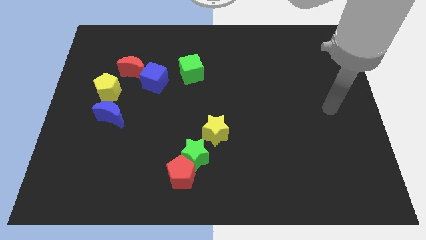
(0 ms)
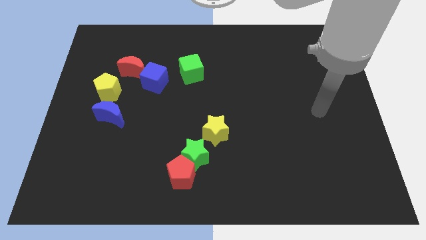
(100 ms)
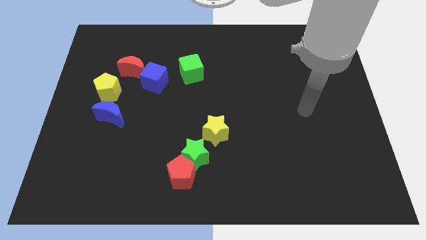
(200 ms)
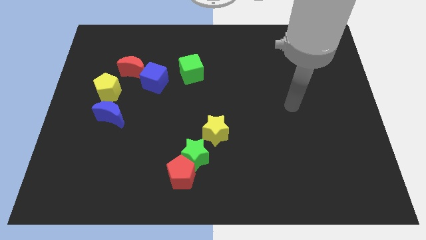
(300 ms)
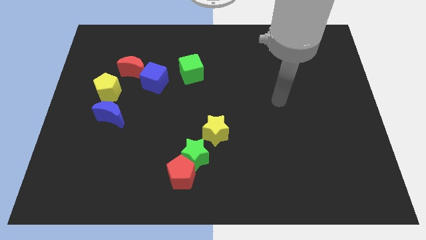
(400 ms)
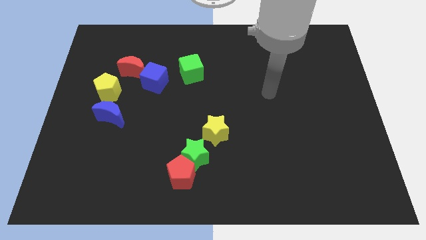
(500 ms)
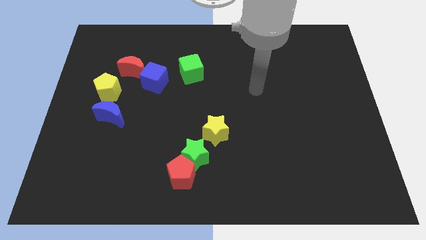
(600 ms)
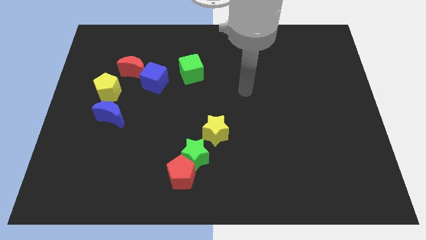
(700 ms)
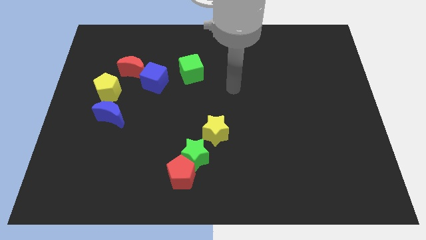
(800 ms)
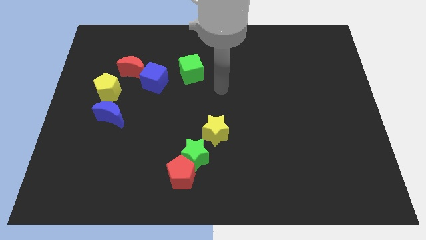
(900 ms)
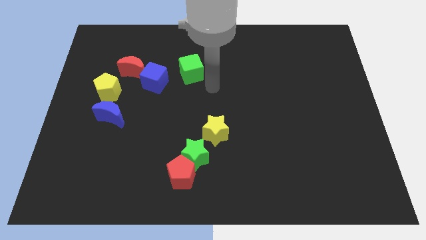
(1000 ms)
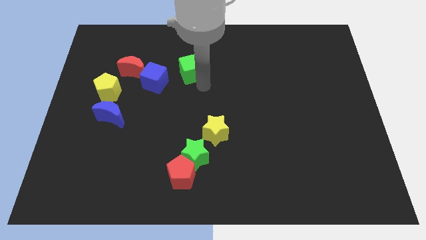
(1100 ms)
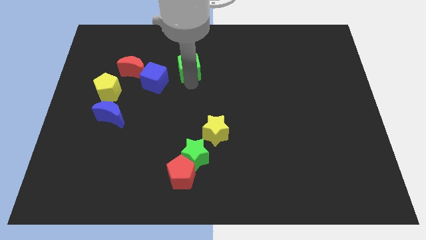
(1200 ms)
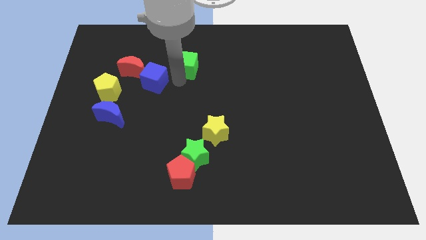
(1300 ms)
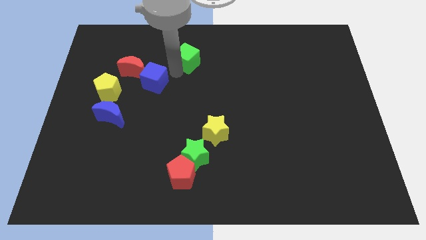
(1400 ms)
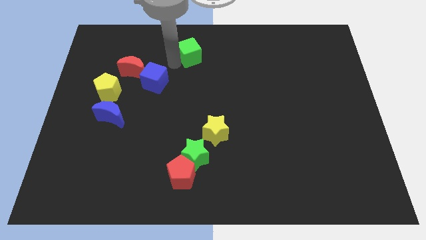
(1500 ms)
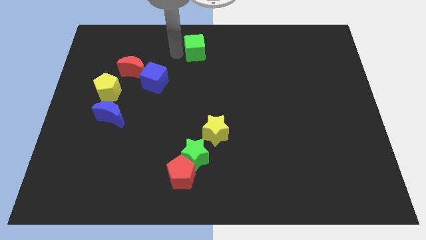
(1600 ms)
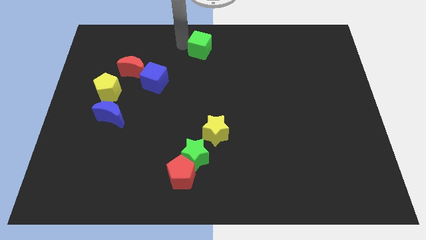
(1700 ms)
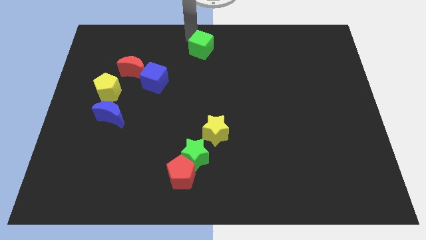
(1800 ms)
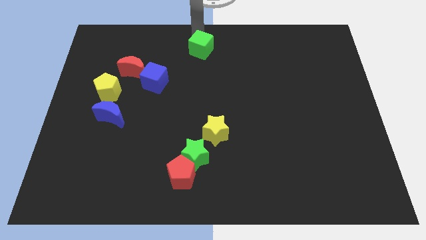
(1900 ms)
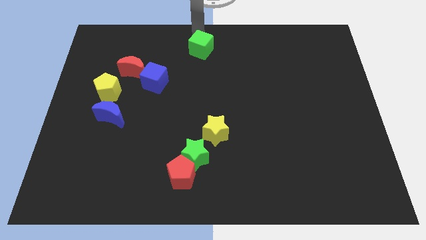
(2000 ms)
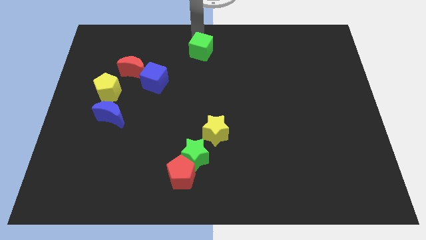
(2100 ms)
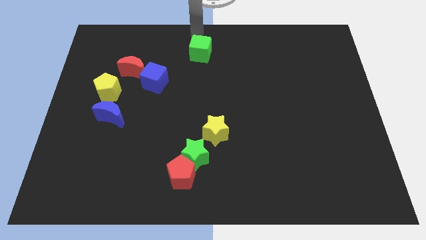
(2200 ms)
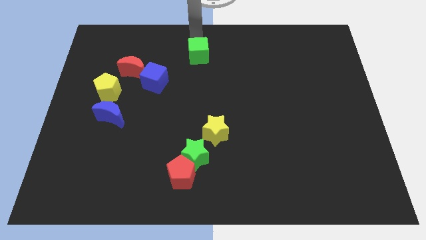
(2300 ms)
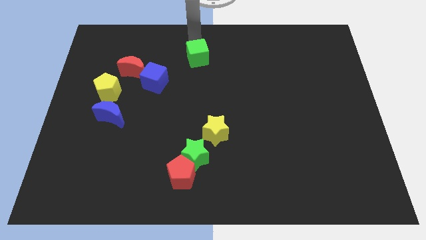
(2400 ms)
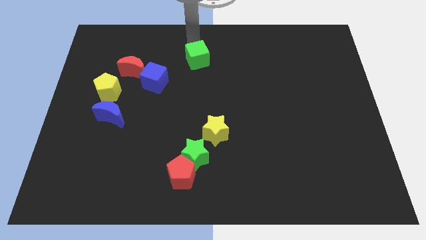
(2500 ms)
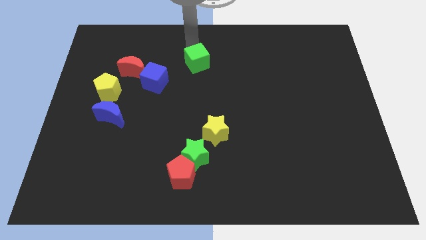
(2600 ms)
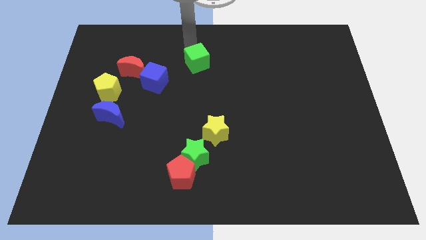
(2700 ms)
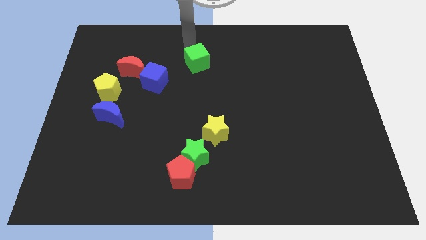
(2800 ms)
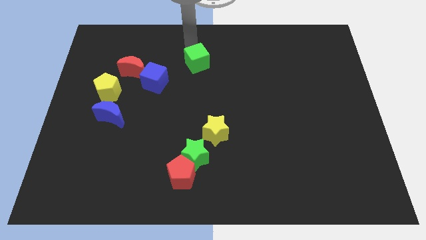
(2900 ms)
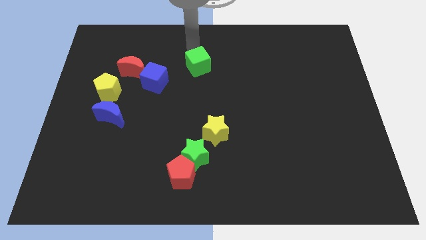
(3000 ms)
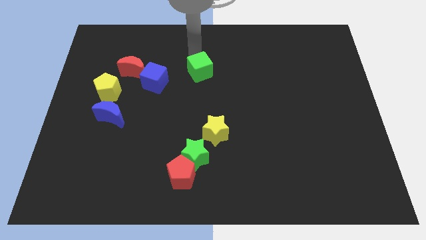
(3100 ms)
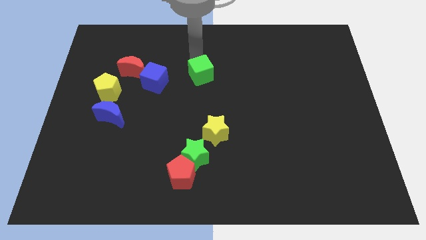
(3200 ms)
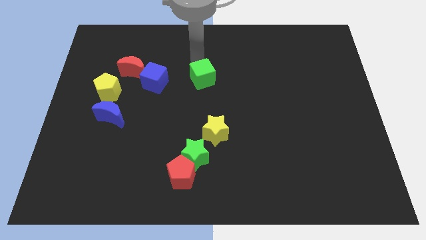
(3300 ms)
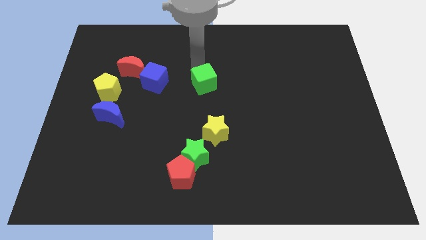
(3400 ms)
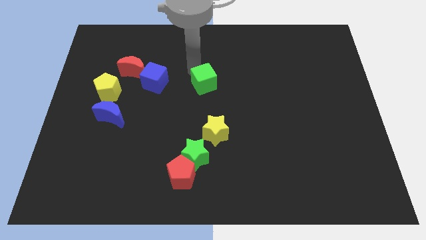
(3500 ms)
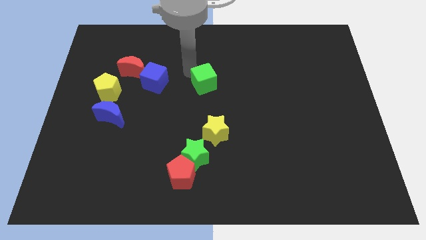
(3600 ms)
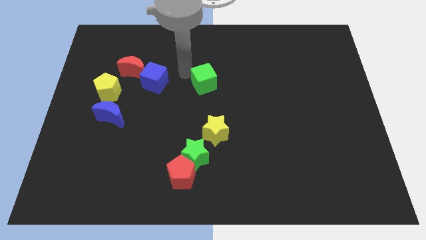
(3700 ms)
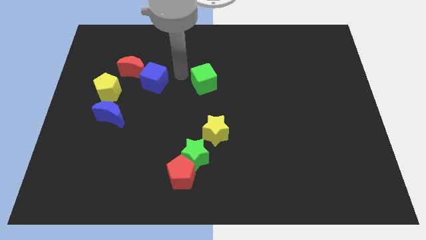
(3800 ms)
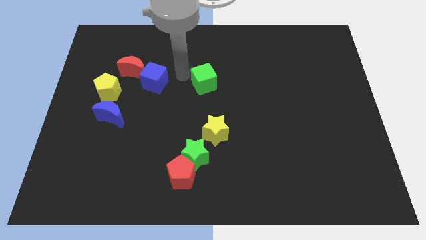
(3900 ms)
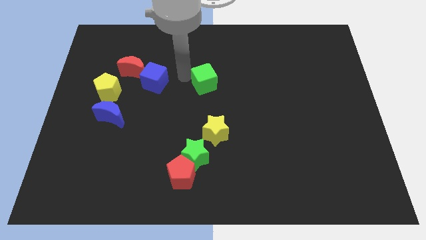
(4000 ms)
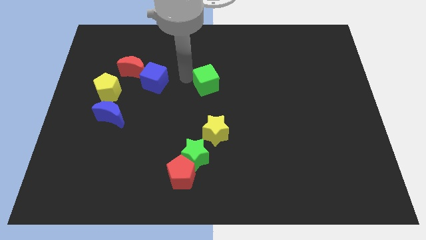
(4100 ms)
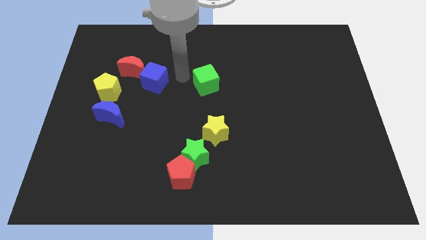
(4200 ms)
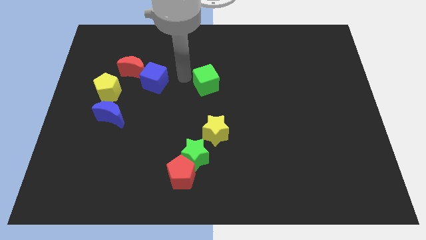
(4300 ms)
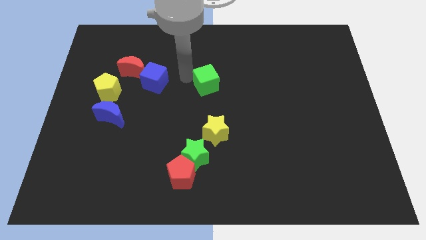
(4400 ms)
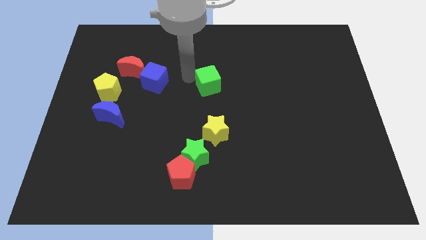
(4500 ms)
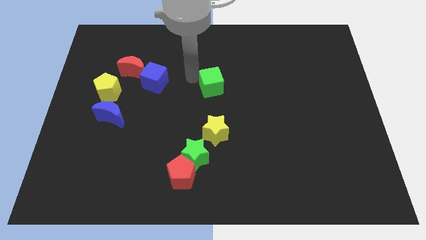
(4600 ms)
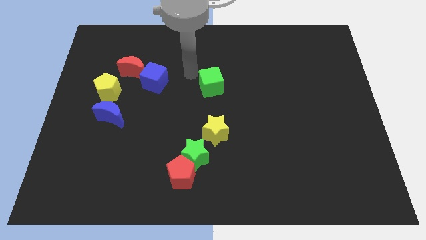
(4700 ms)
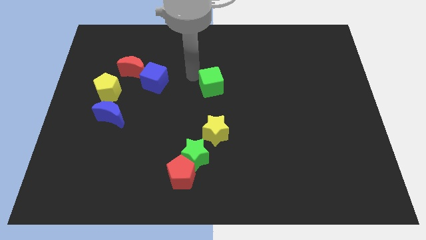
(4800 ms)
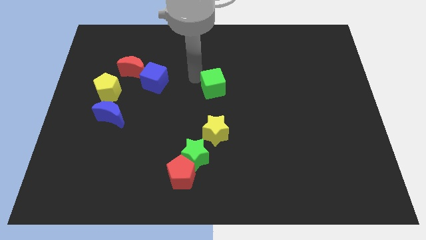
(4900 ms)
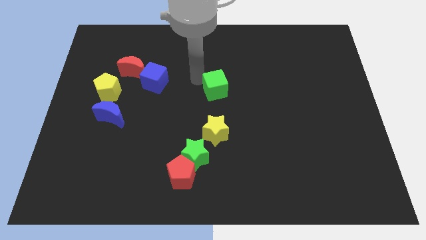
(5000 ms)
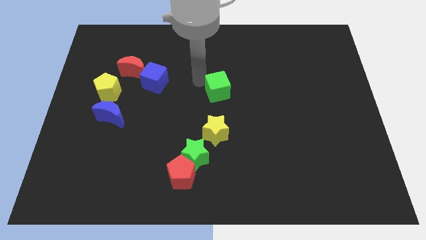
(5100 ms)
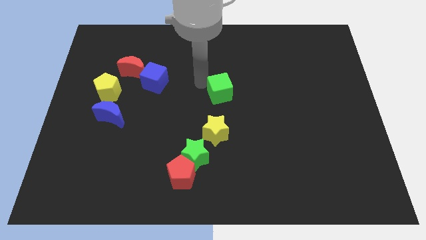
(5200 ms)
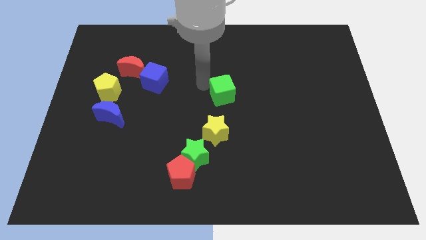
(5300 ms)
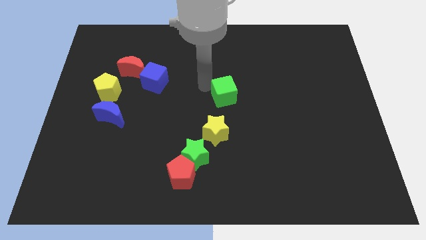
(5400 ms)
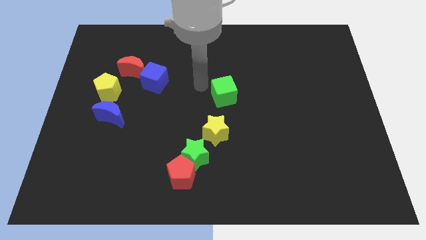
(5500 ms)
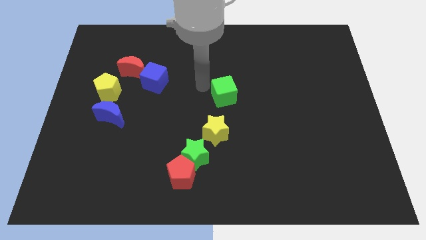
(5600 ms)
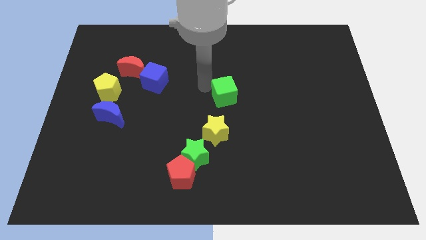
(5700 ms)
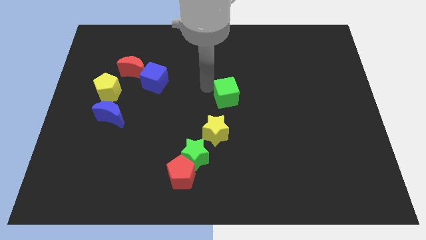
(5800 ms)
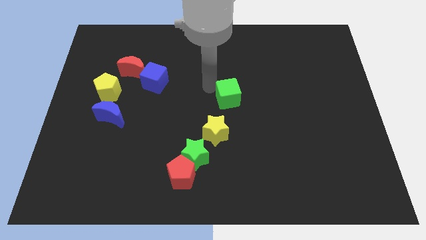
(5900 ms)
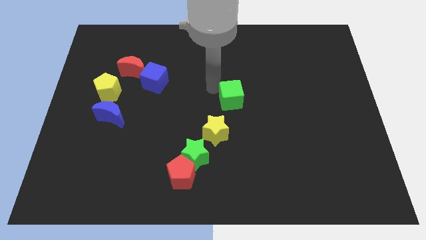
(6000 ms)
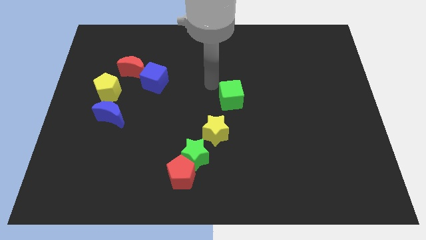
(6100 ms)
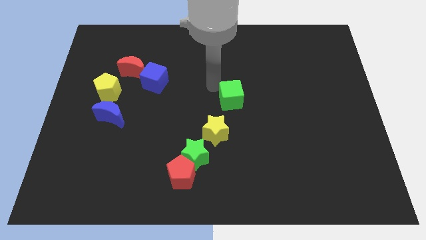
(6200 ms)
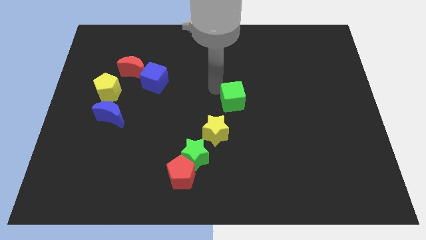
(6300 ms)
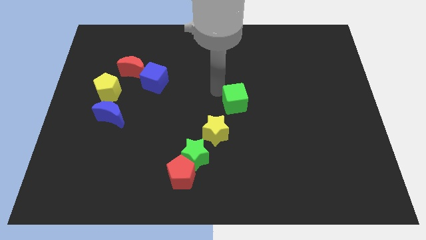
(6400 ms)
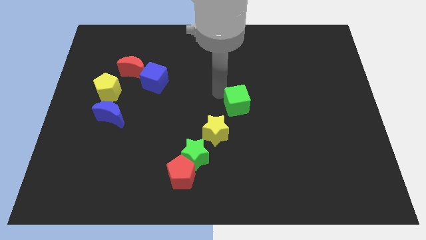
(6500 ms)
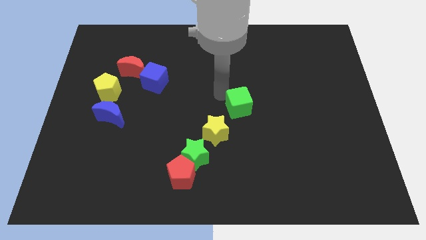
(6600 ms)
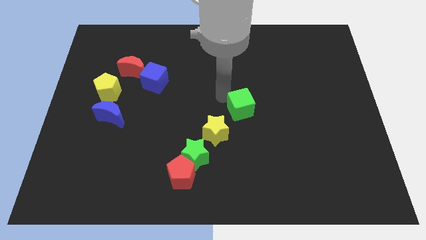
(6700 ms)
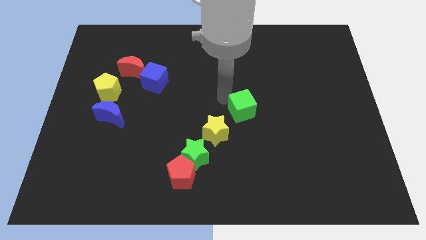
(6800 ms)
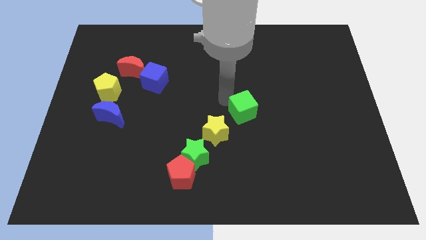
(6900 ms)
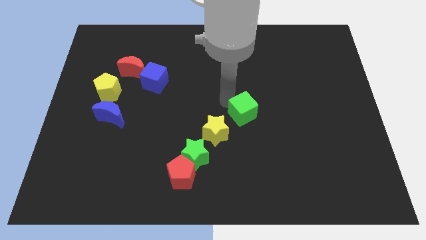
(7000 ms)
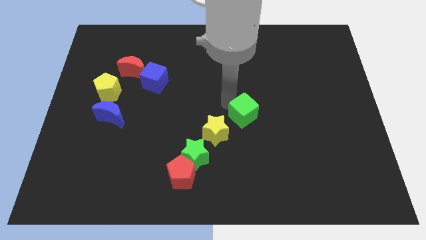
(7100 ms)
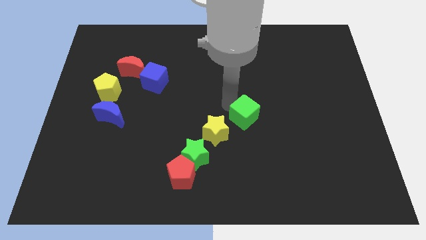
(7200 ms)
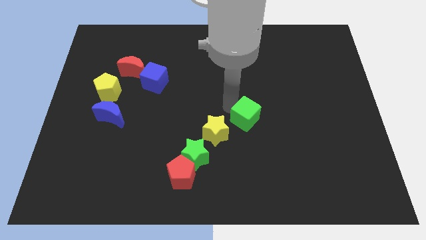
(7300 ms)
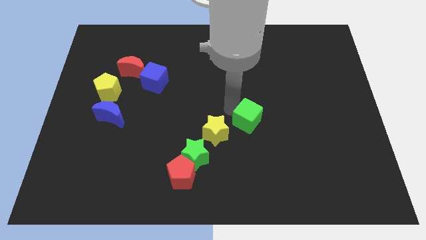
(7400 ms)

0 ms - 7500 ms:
push the green cube down and to the right

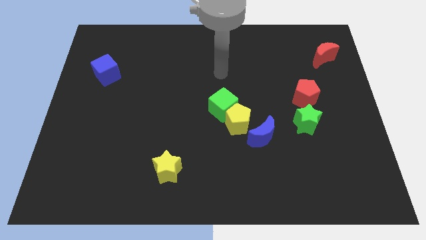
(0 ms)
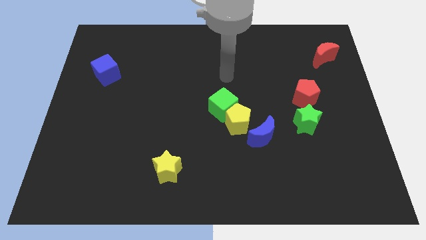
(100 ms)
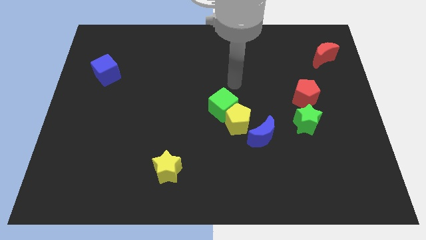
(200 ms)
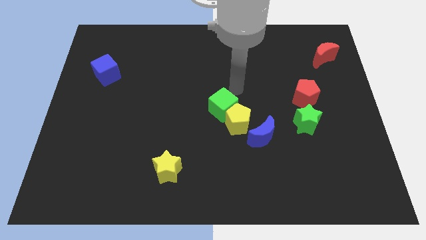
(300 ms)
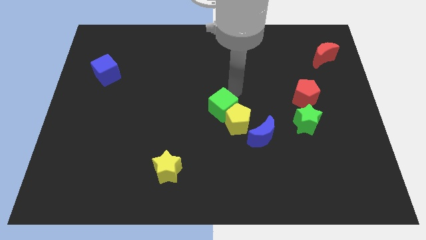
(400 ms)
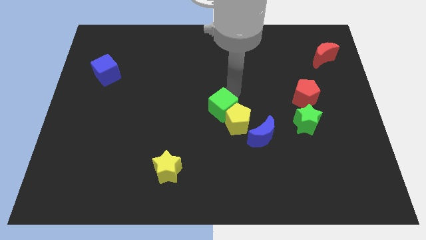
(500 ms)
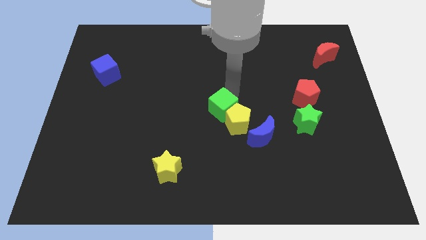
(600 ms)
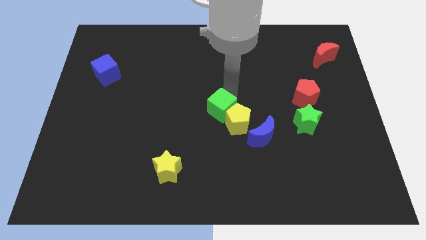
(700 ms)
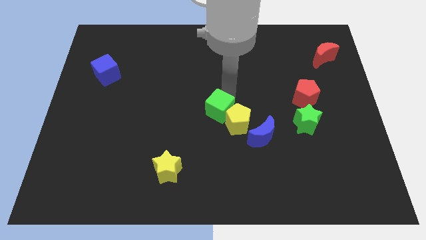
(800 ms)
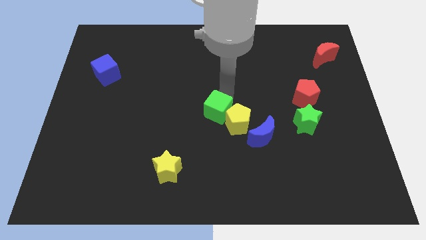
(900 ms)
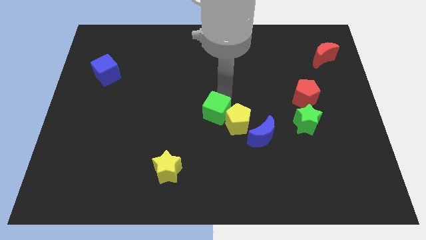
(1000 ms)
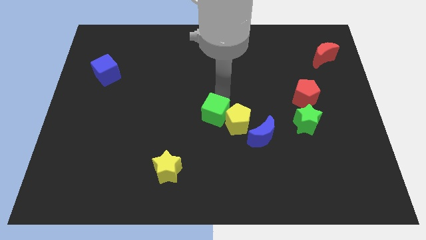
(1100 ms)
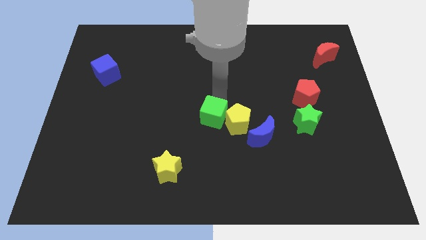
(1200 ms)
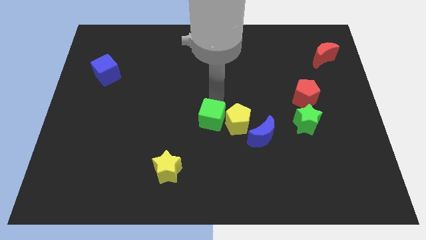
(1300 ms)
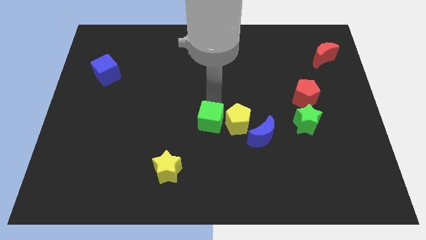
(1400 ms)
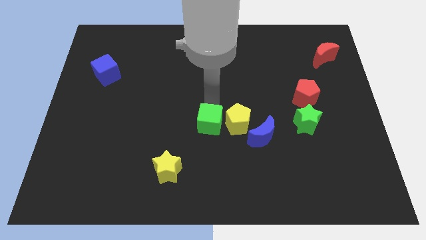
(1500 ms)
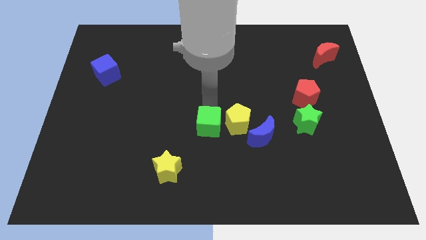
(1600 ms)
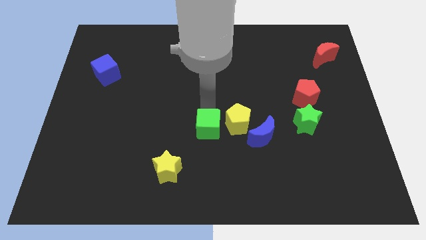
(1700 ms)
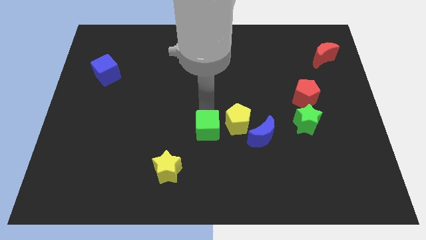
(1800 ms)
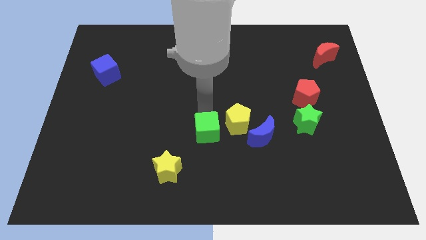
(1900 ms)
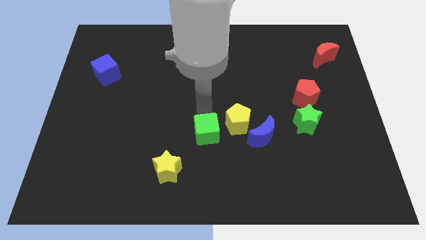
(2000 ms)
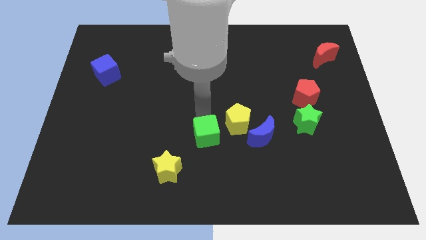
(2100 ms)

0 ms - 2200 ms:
slide the green cube somewhat down
